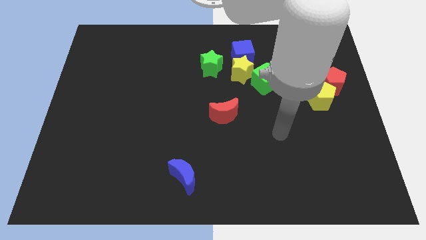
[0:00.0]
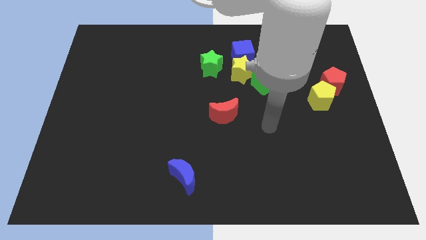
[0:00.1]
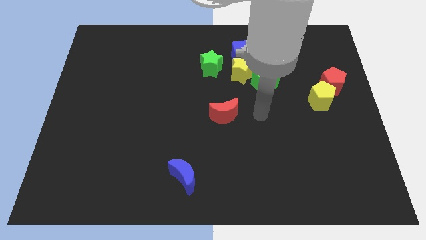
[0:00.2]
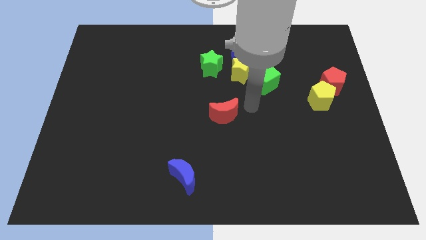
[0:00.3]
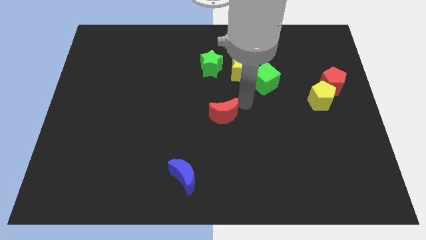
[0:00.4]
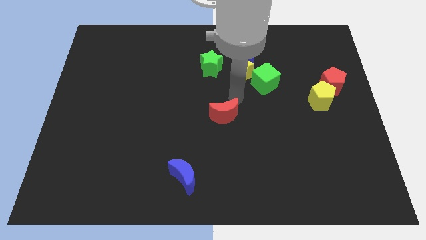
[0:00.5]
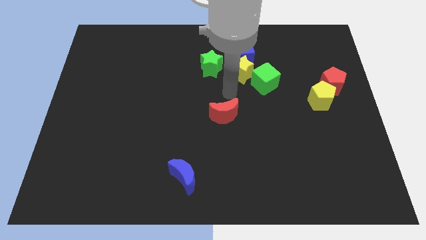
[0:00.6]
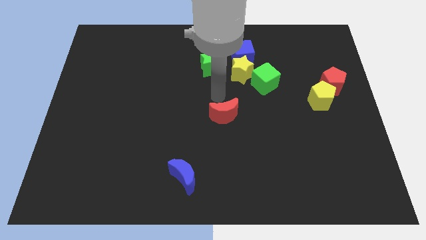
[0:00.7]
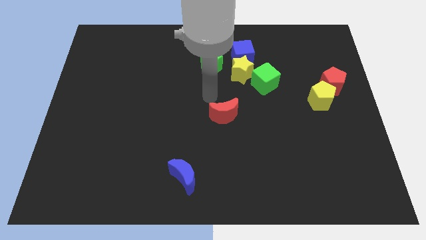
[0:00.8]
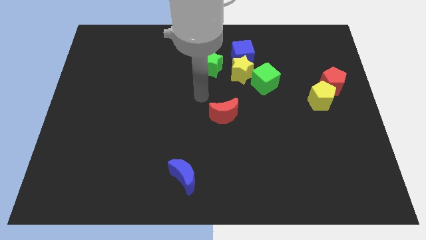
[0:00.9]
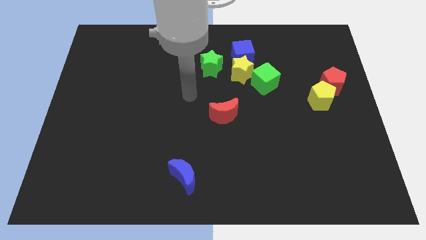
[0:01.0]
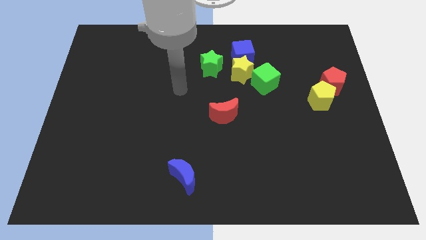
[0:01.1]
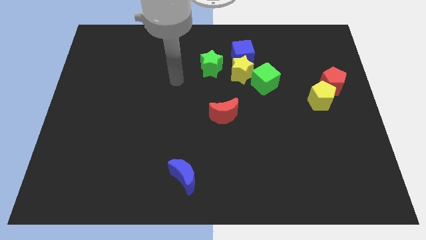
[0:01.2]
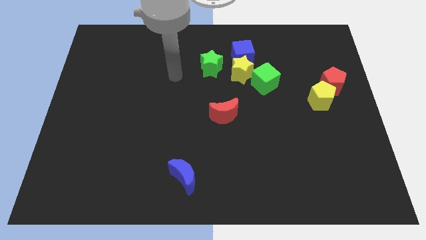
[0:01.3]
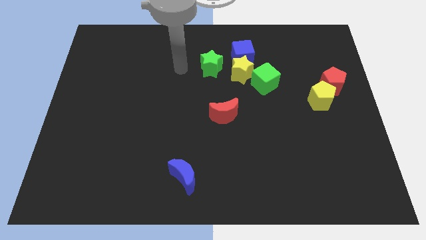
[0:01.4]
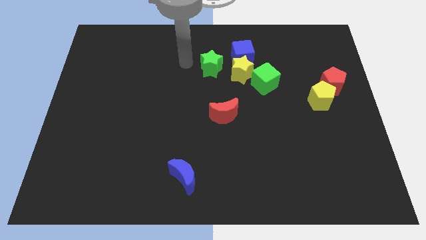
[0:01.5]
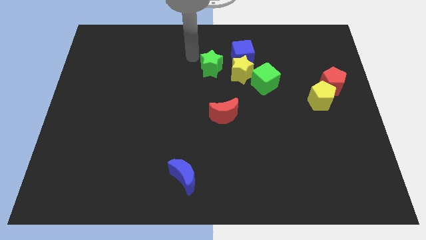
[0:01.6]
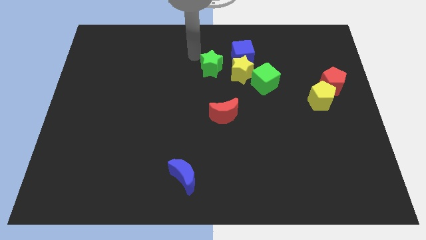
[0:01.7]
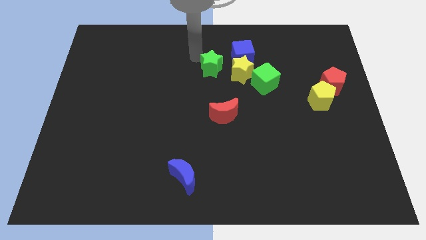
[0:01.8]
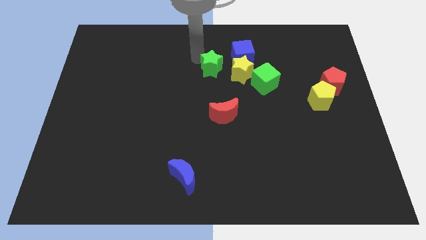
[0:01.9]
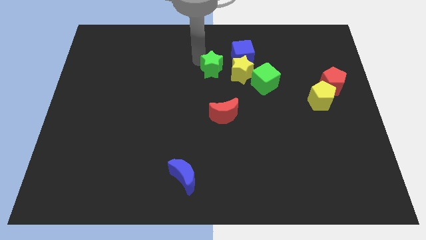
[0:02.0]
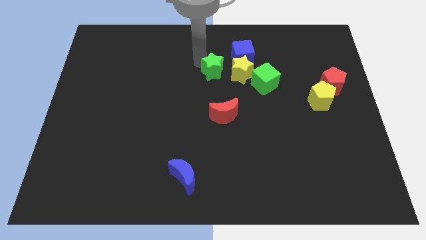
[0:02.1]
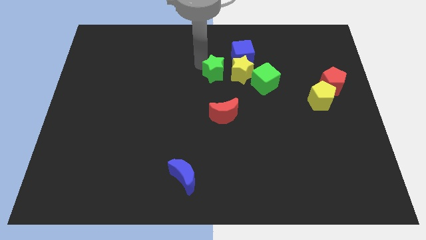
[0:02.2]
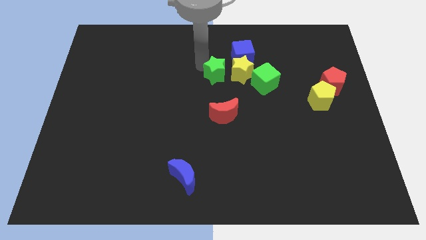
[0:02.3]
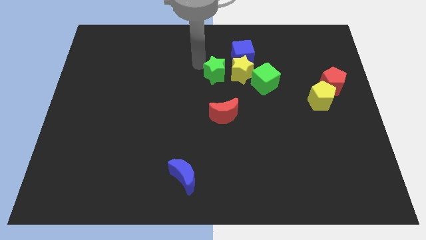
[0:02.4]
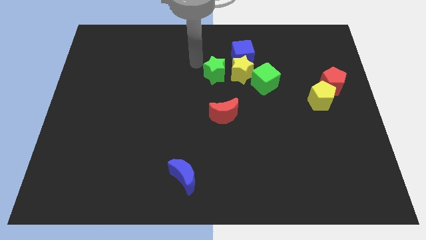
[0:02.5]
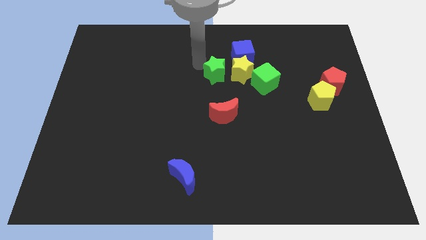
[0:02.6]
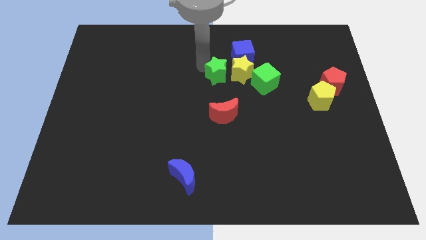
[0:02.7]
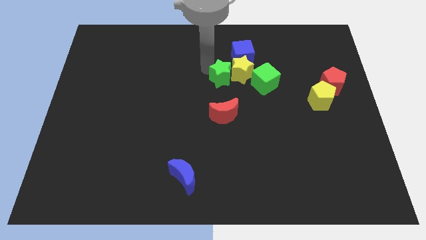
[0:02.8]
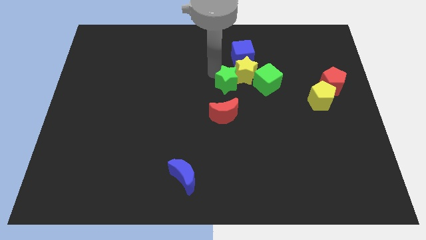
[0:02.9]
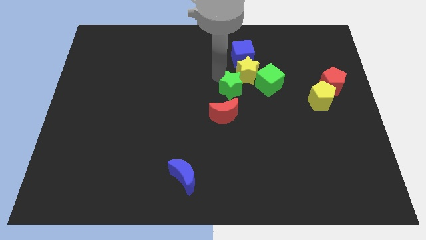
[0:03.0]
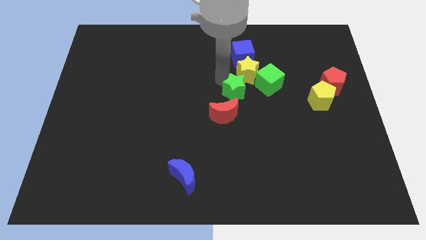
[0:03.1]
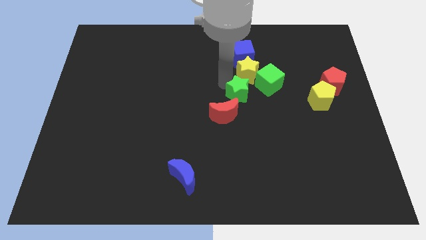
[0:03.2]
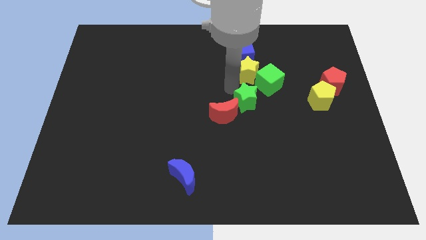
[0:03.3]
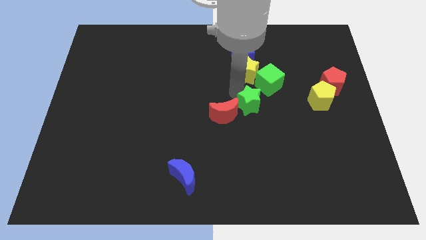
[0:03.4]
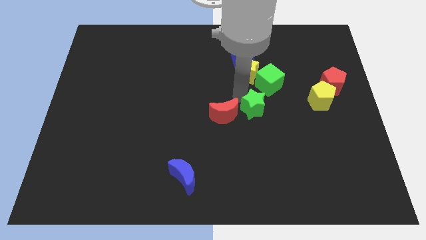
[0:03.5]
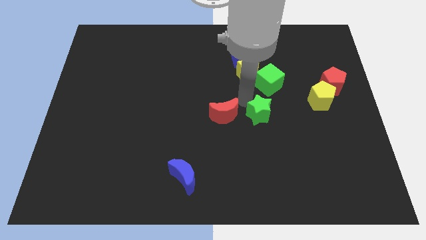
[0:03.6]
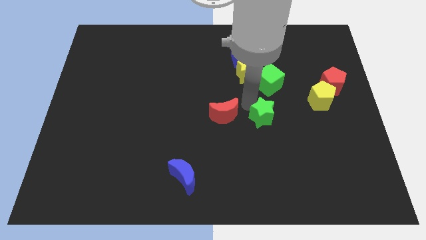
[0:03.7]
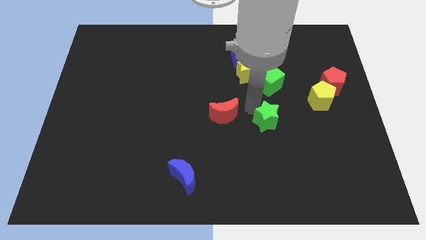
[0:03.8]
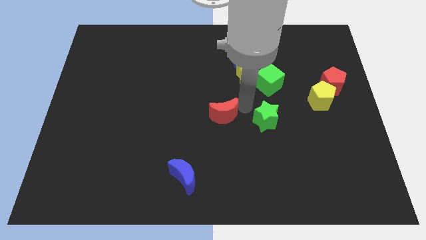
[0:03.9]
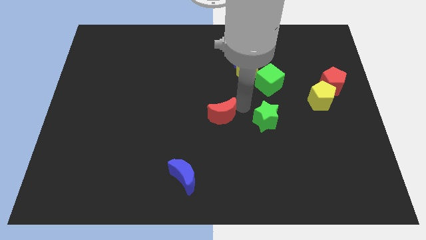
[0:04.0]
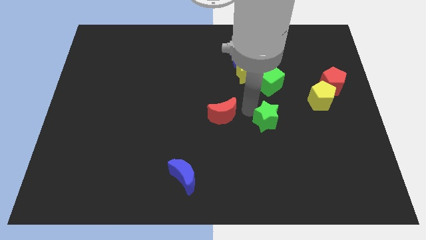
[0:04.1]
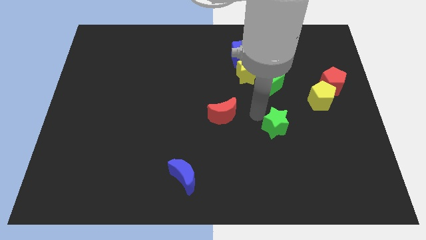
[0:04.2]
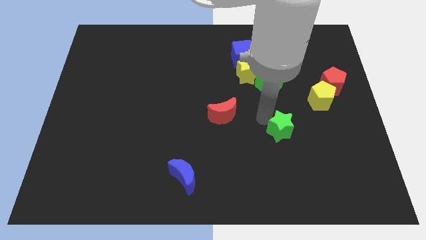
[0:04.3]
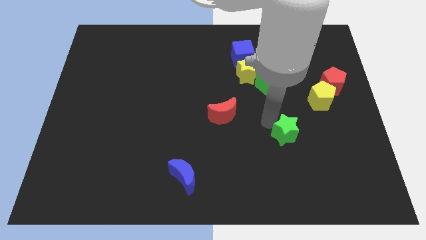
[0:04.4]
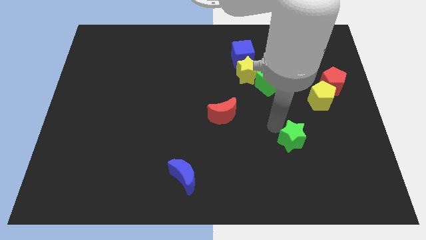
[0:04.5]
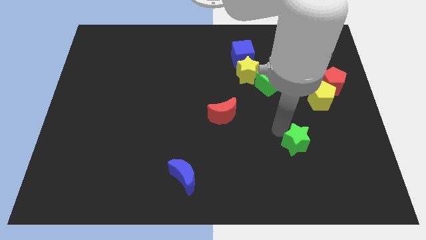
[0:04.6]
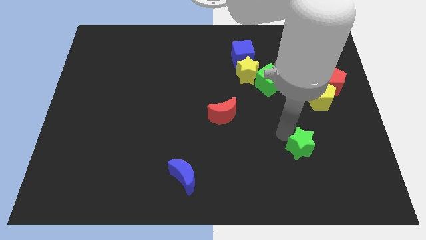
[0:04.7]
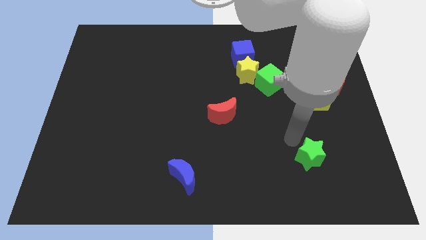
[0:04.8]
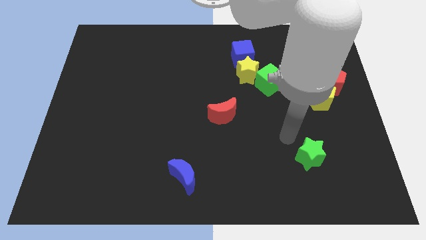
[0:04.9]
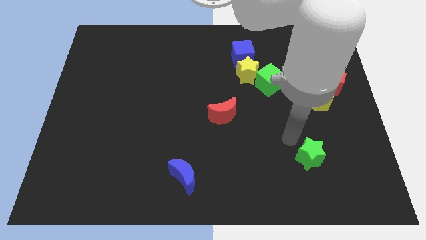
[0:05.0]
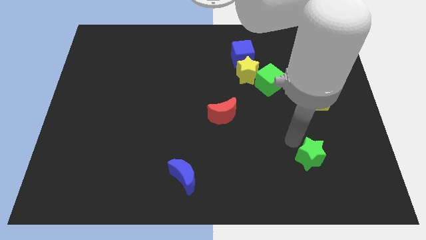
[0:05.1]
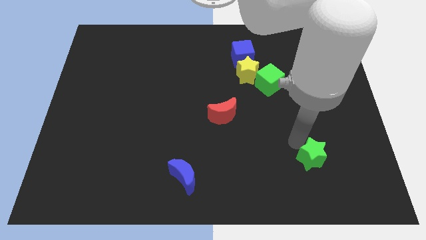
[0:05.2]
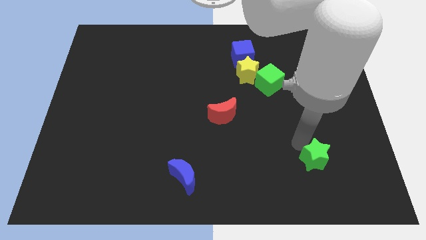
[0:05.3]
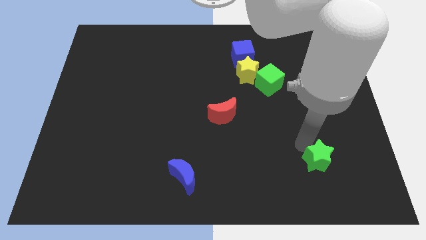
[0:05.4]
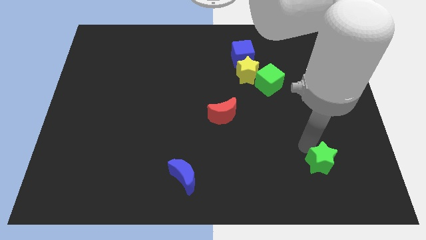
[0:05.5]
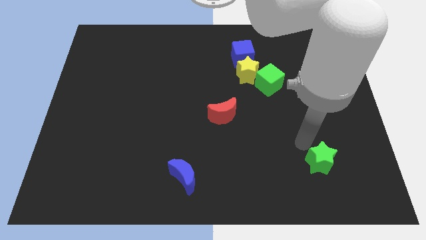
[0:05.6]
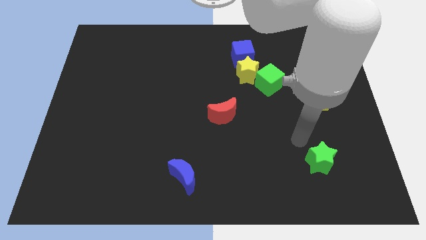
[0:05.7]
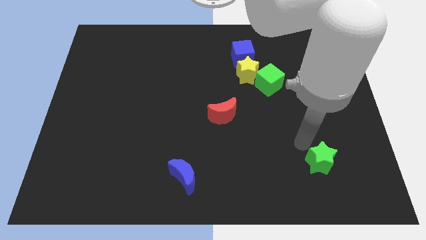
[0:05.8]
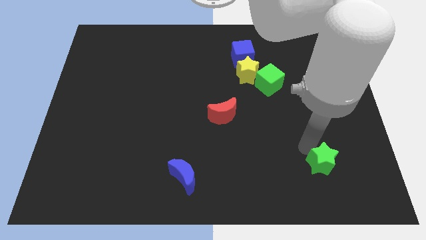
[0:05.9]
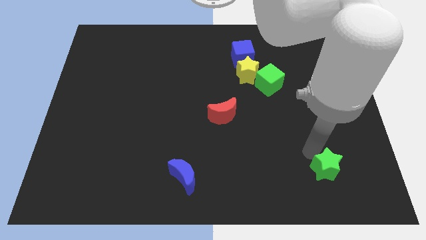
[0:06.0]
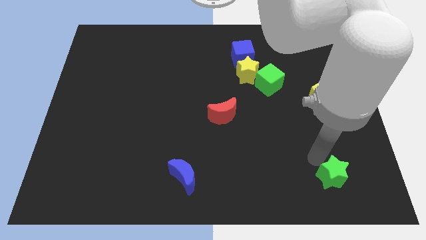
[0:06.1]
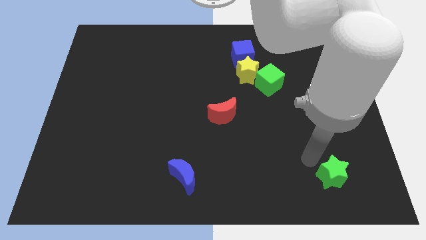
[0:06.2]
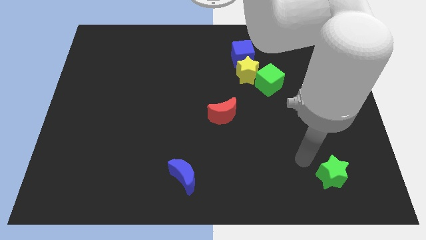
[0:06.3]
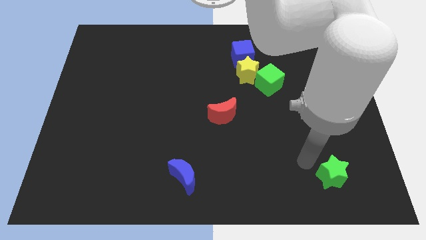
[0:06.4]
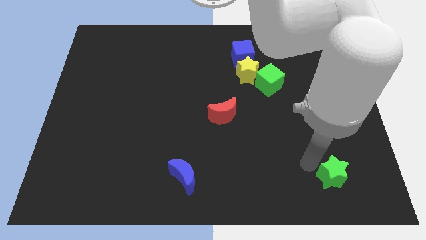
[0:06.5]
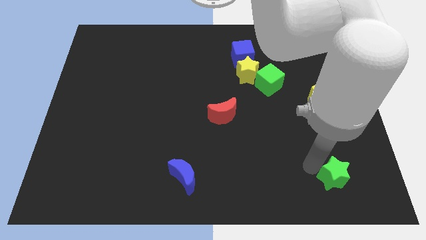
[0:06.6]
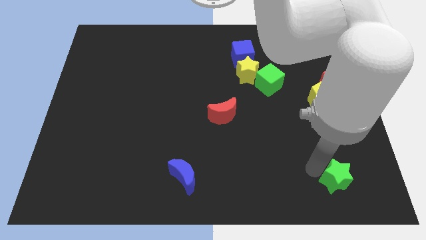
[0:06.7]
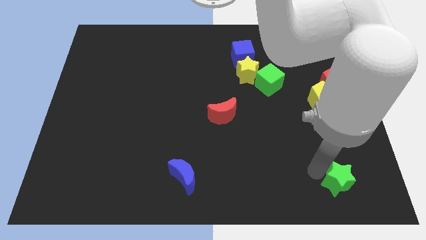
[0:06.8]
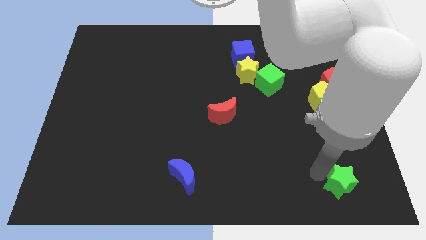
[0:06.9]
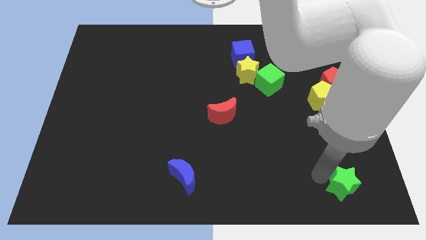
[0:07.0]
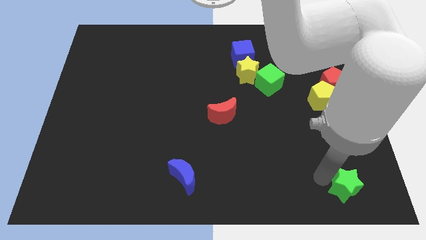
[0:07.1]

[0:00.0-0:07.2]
push the green star to the bottom right corner
